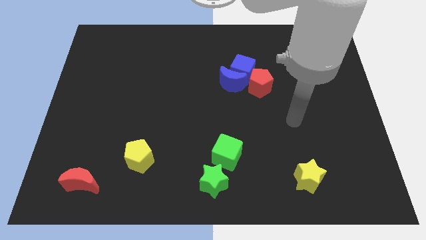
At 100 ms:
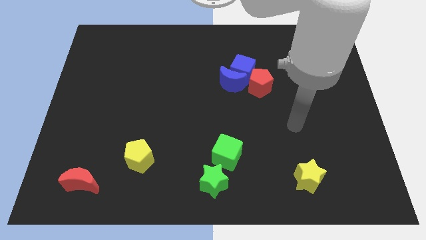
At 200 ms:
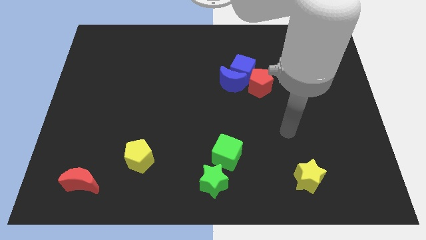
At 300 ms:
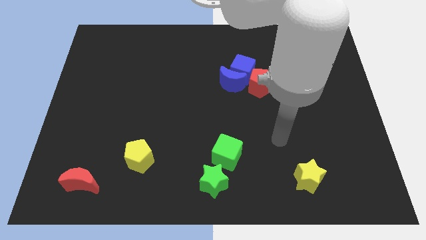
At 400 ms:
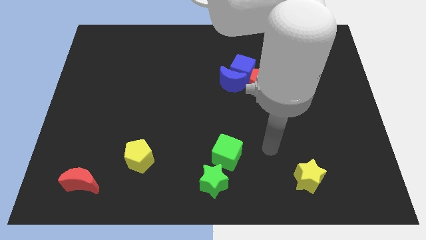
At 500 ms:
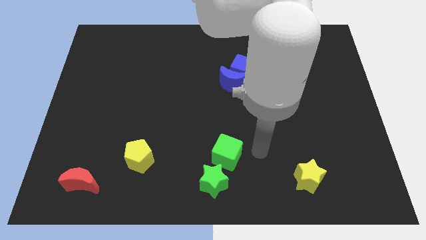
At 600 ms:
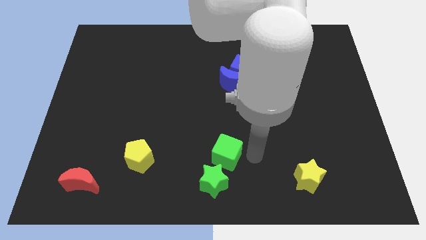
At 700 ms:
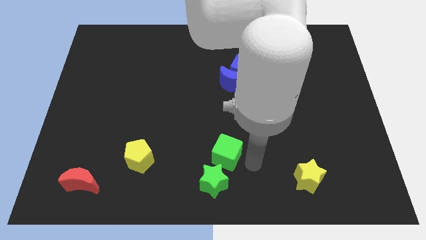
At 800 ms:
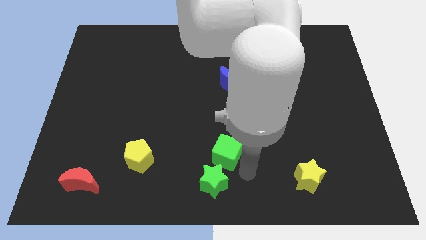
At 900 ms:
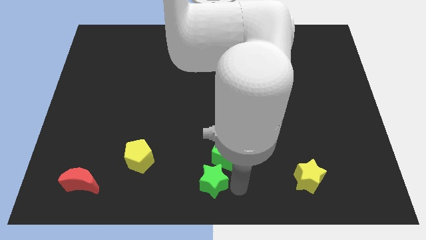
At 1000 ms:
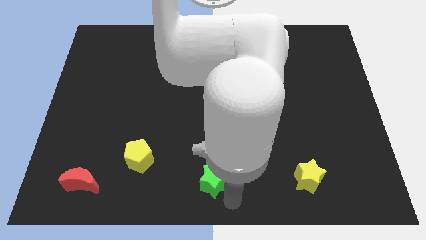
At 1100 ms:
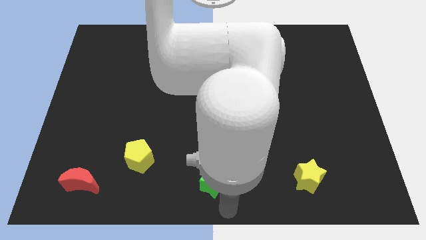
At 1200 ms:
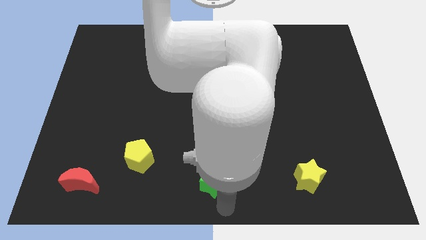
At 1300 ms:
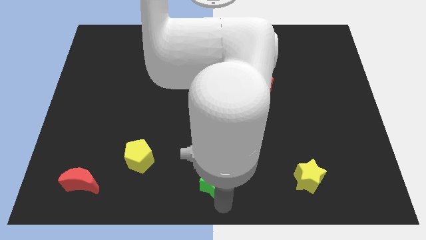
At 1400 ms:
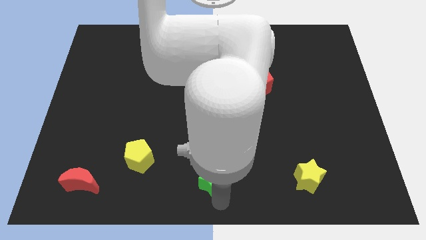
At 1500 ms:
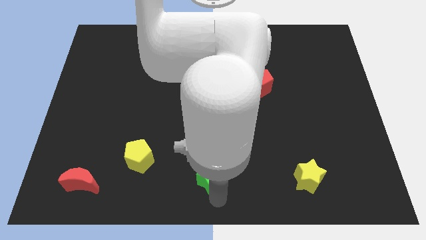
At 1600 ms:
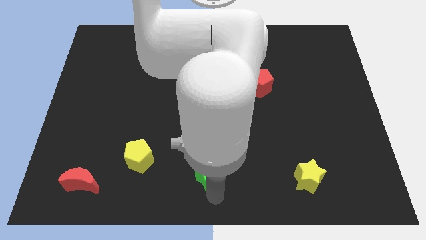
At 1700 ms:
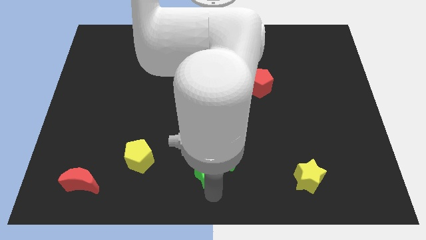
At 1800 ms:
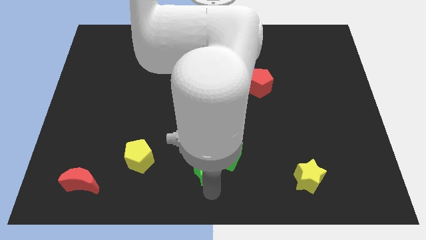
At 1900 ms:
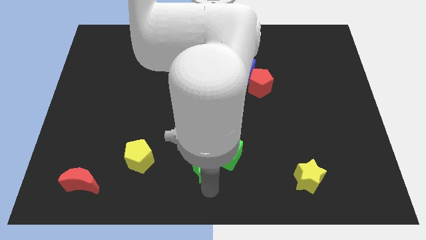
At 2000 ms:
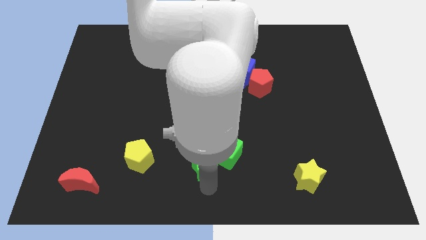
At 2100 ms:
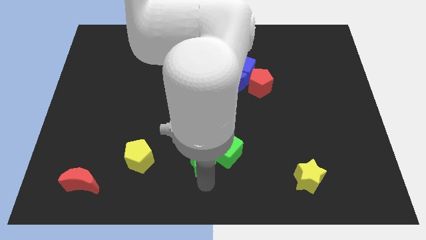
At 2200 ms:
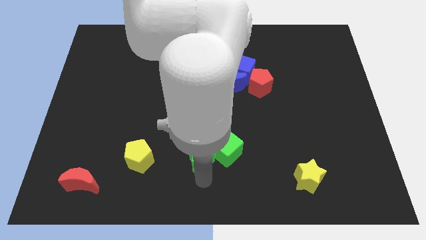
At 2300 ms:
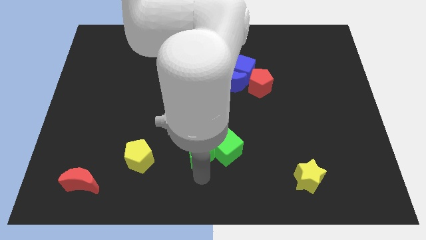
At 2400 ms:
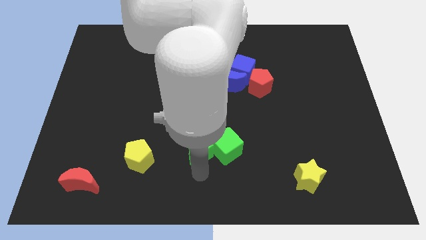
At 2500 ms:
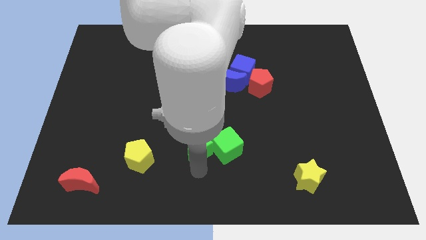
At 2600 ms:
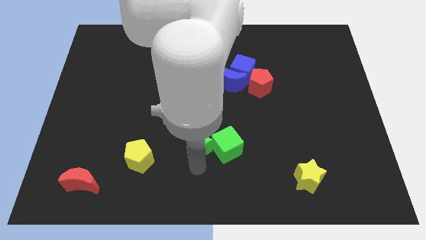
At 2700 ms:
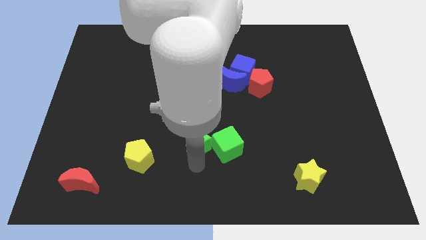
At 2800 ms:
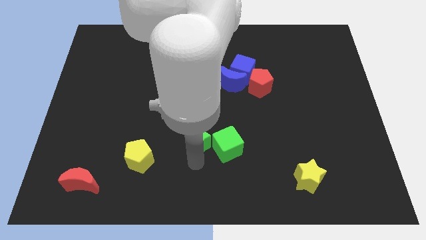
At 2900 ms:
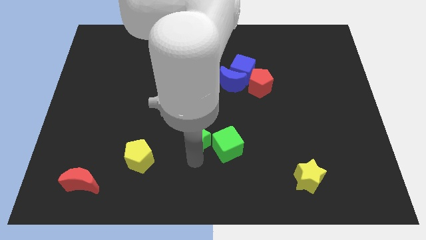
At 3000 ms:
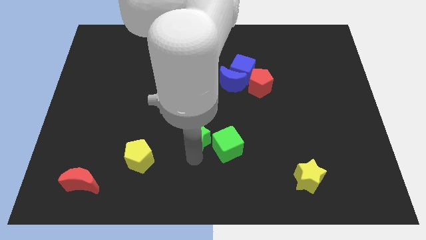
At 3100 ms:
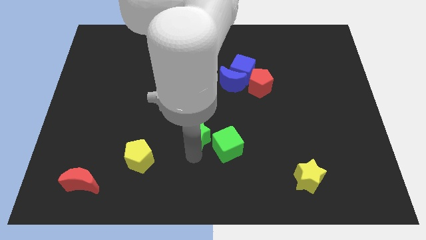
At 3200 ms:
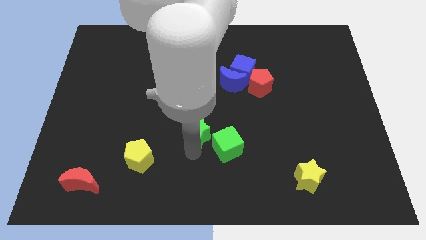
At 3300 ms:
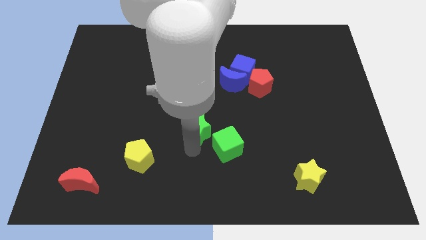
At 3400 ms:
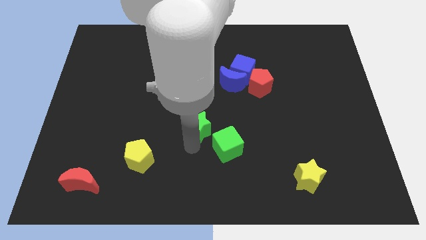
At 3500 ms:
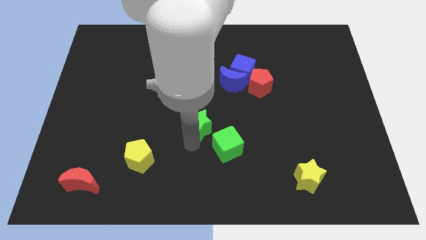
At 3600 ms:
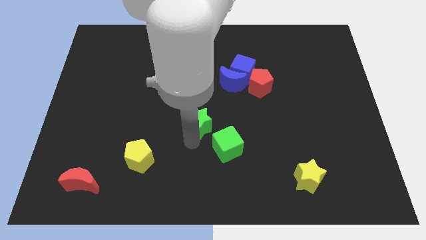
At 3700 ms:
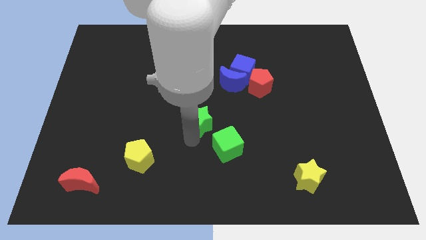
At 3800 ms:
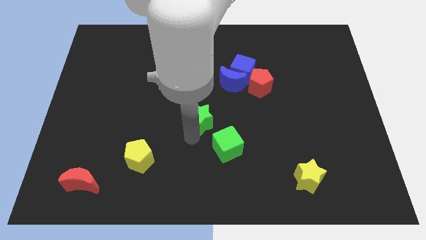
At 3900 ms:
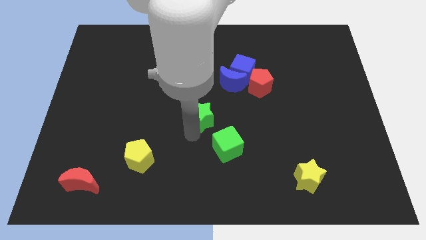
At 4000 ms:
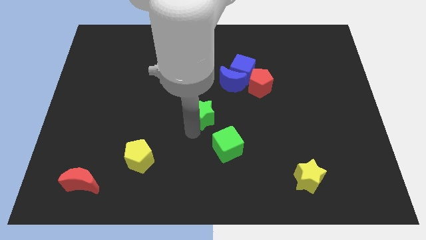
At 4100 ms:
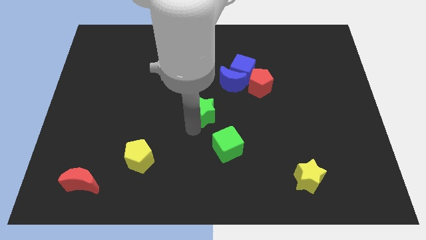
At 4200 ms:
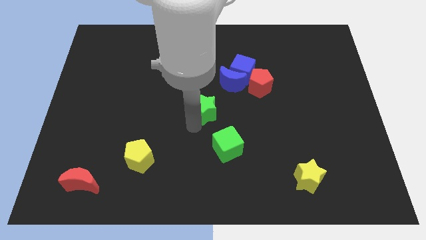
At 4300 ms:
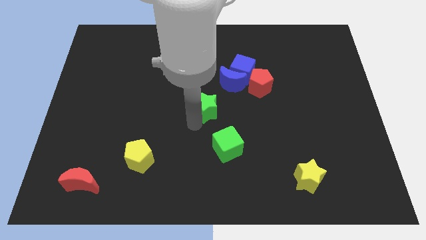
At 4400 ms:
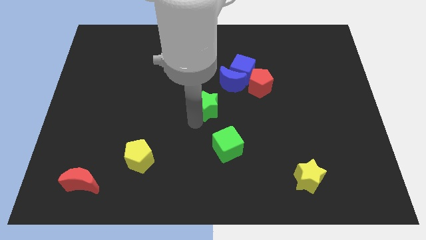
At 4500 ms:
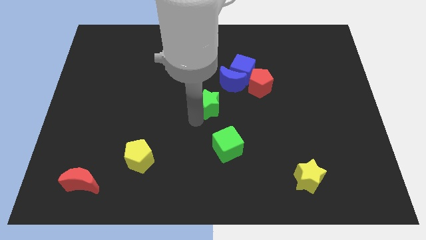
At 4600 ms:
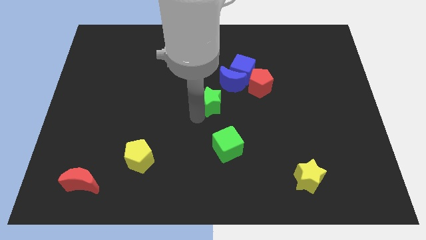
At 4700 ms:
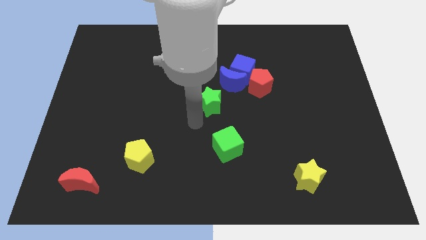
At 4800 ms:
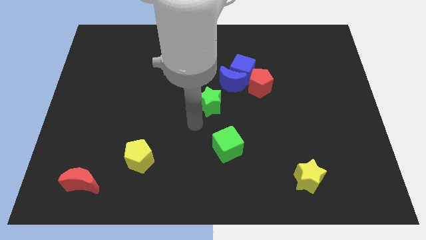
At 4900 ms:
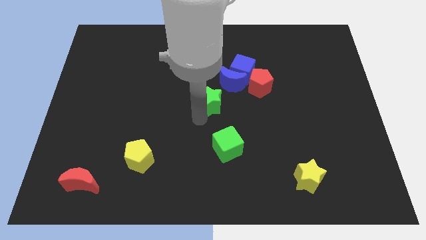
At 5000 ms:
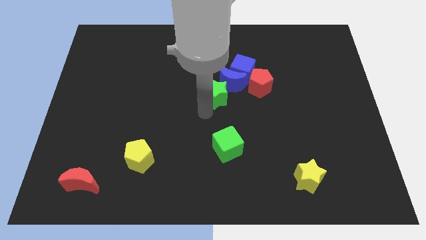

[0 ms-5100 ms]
slide the green star towards the blue moon

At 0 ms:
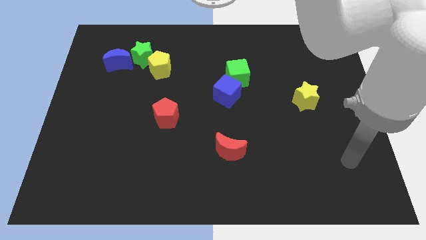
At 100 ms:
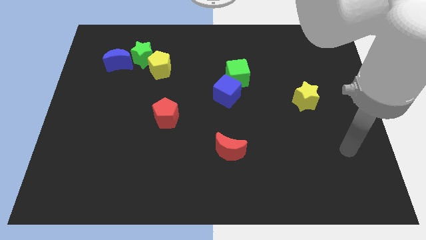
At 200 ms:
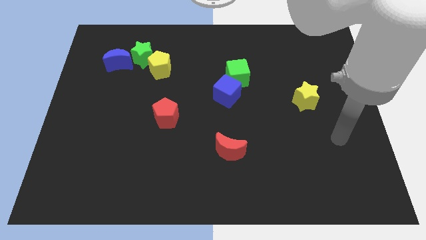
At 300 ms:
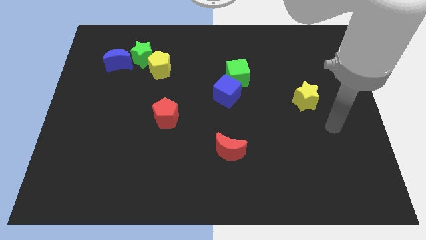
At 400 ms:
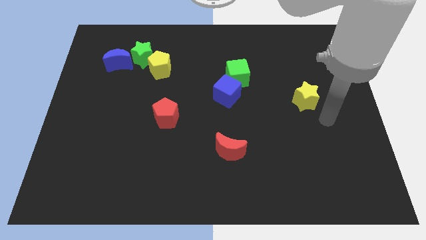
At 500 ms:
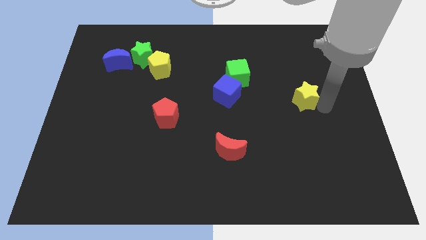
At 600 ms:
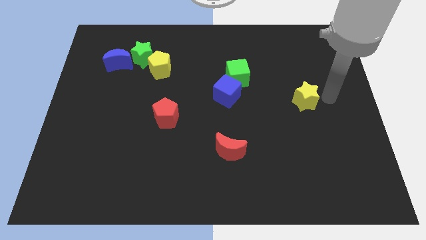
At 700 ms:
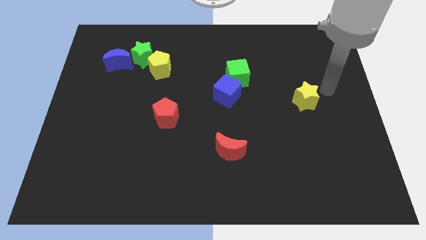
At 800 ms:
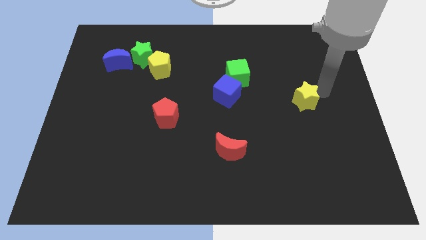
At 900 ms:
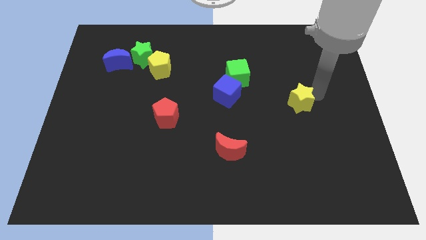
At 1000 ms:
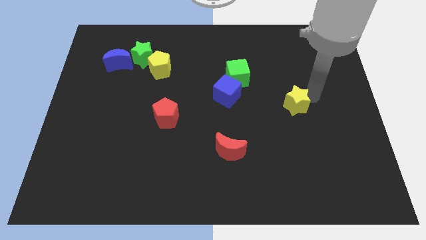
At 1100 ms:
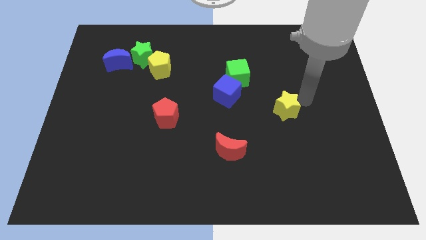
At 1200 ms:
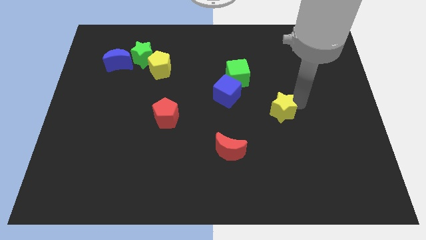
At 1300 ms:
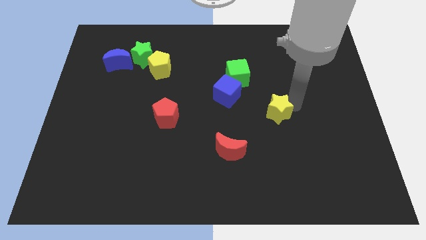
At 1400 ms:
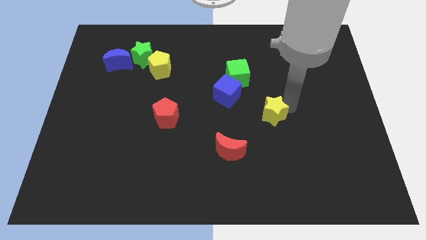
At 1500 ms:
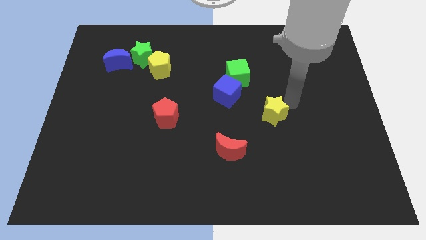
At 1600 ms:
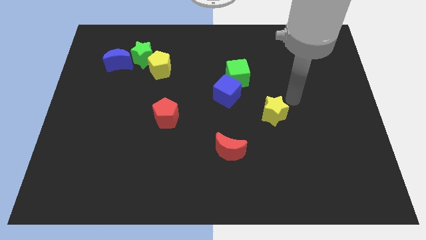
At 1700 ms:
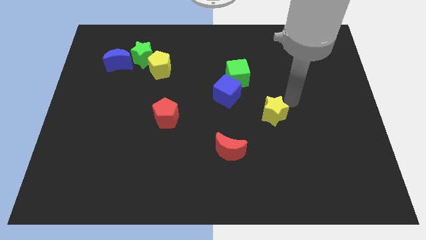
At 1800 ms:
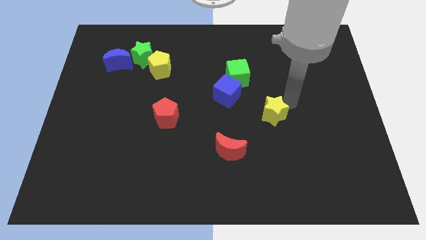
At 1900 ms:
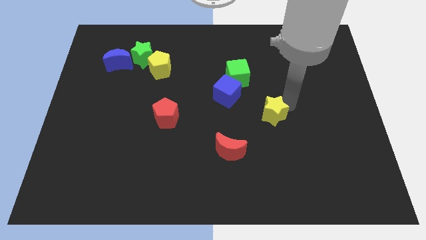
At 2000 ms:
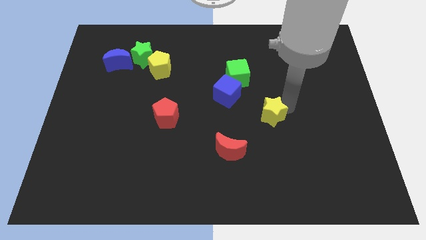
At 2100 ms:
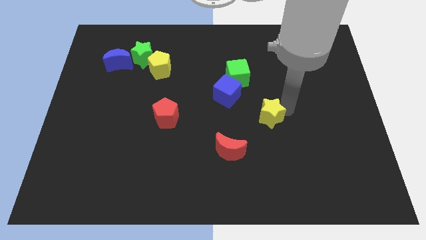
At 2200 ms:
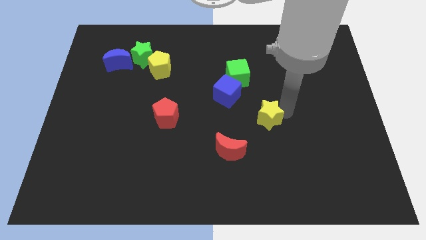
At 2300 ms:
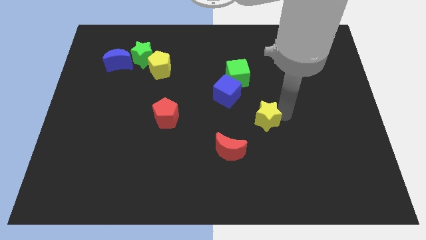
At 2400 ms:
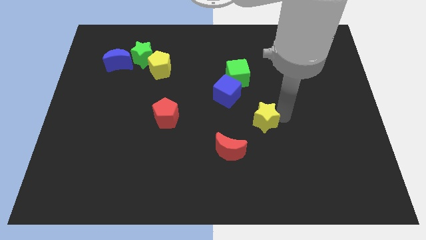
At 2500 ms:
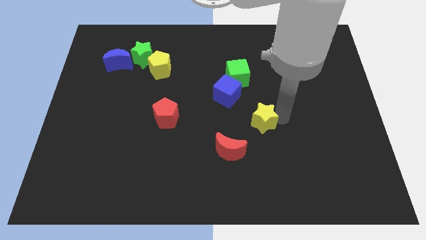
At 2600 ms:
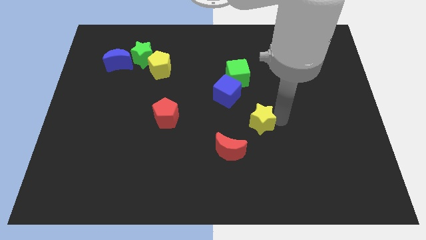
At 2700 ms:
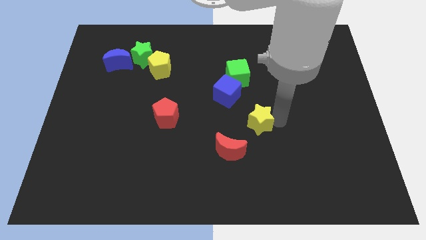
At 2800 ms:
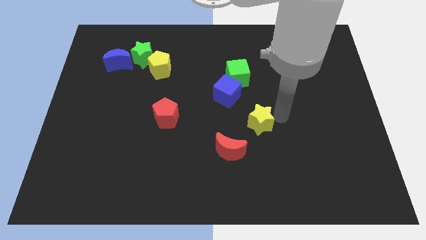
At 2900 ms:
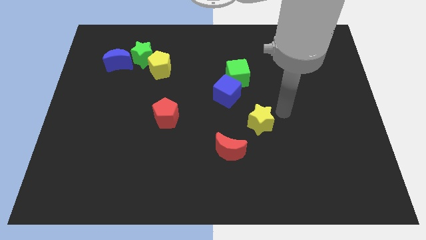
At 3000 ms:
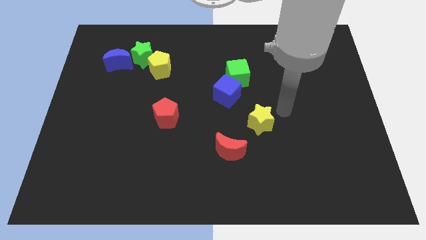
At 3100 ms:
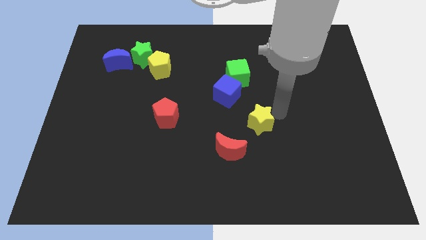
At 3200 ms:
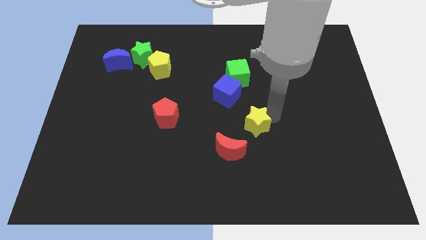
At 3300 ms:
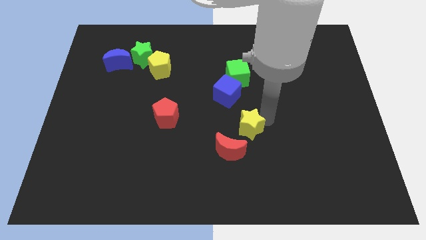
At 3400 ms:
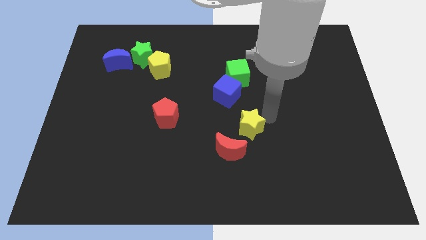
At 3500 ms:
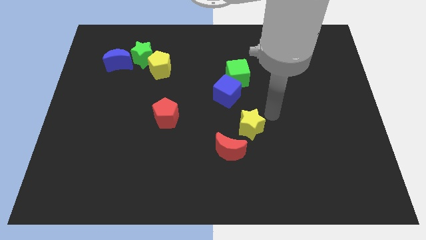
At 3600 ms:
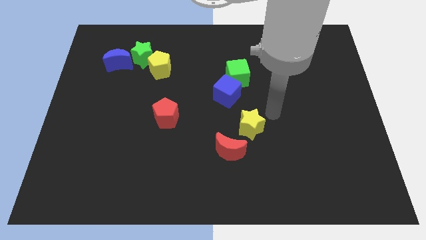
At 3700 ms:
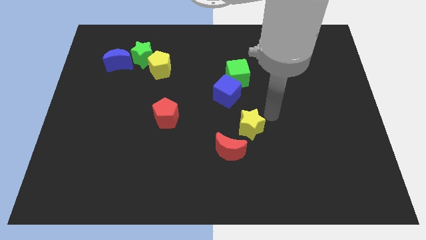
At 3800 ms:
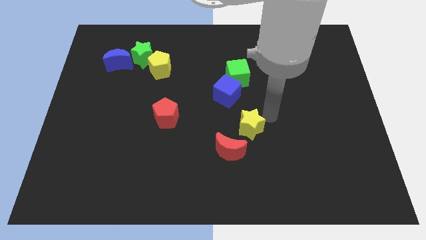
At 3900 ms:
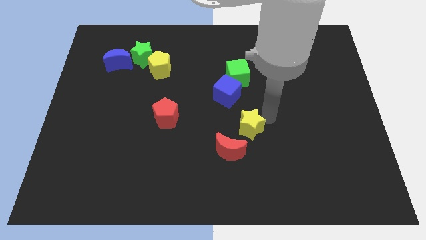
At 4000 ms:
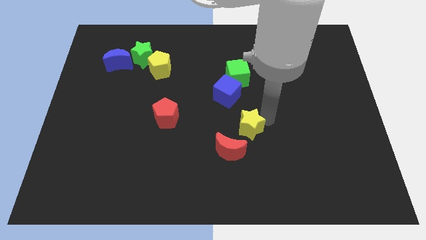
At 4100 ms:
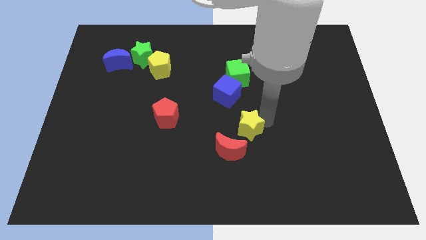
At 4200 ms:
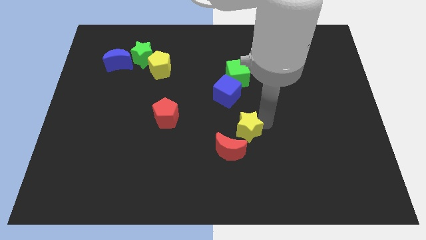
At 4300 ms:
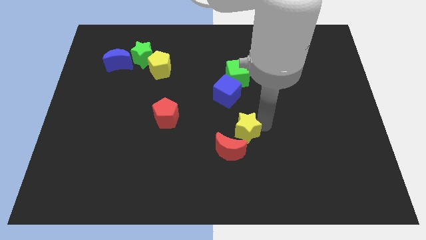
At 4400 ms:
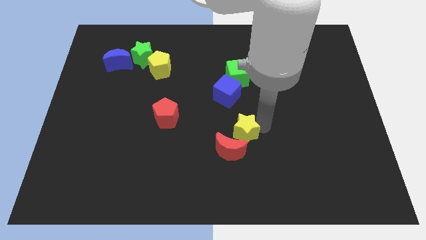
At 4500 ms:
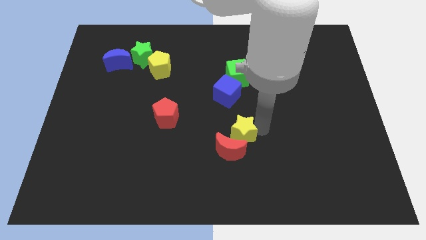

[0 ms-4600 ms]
put the yellow star next to the red moon
